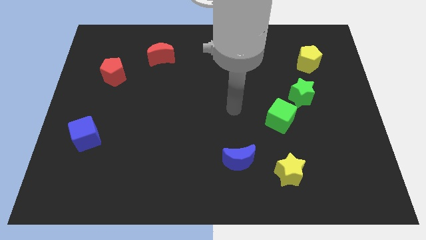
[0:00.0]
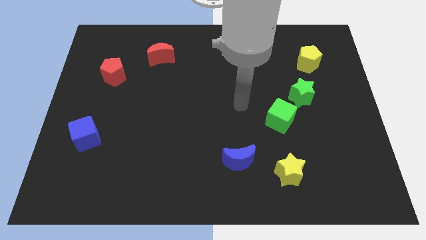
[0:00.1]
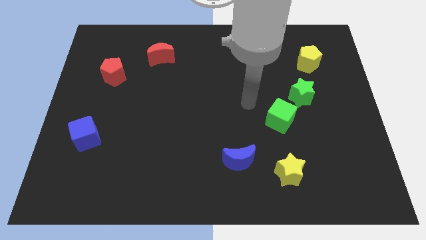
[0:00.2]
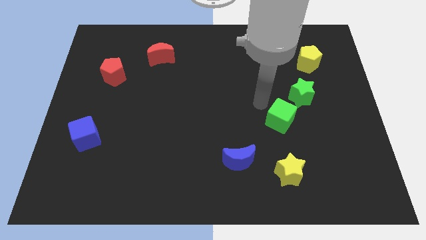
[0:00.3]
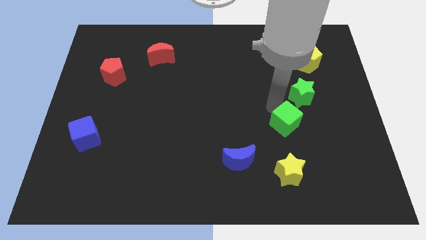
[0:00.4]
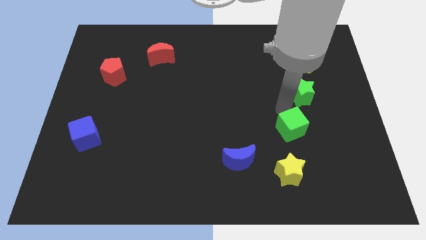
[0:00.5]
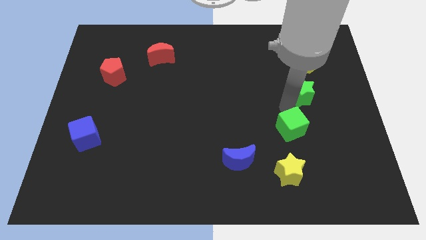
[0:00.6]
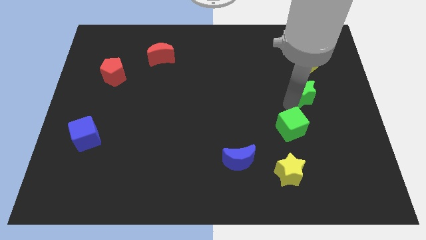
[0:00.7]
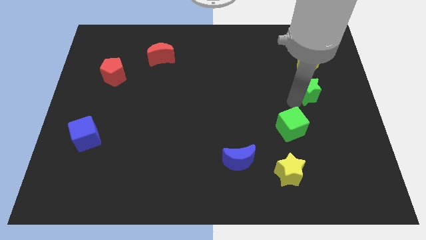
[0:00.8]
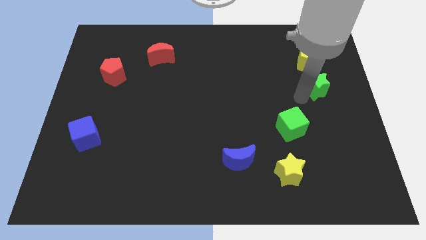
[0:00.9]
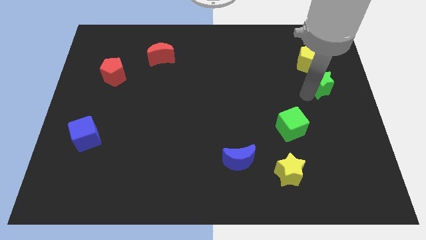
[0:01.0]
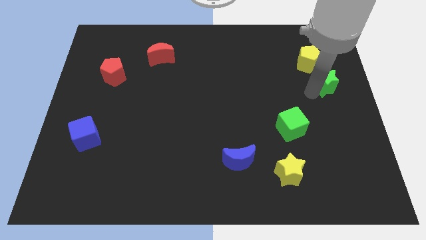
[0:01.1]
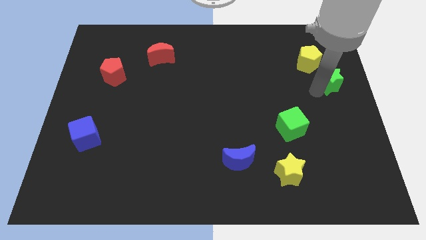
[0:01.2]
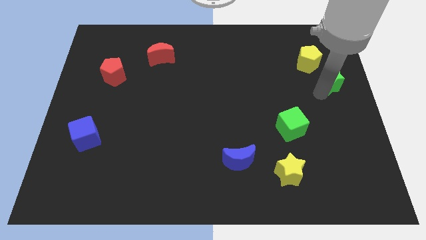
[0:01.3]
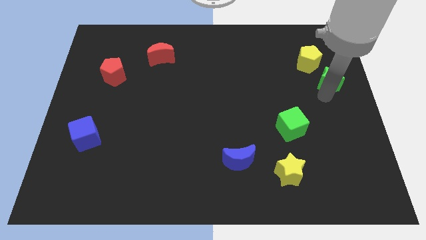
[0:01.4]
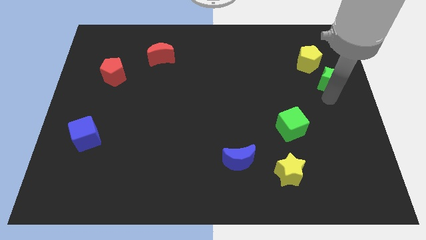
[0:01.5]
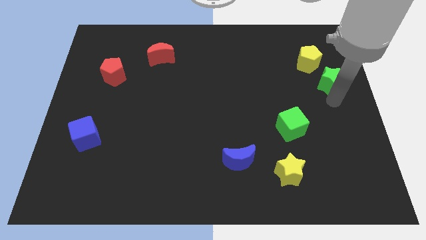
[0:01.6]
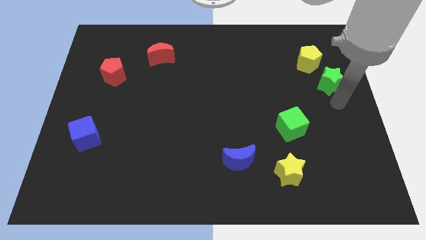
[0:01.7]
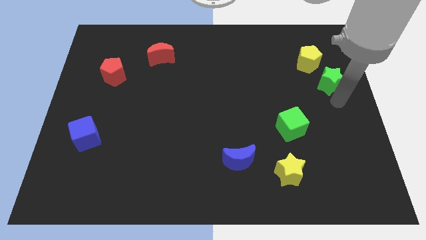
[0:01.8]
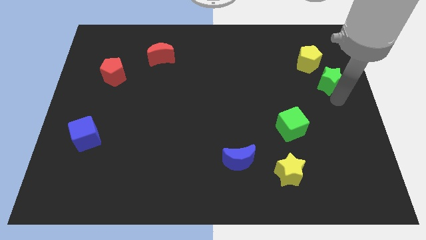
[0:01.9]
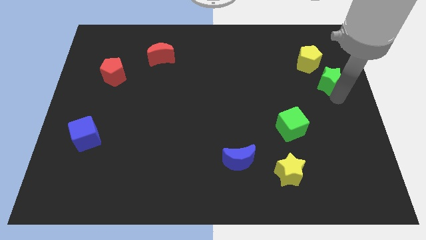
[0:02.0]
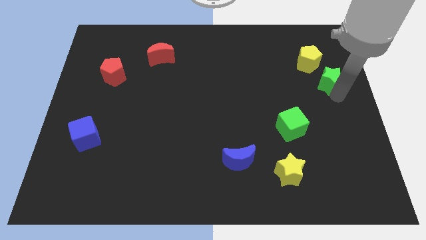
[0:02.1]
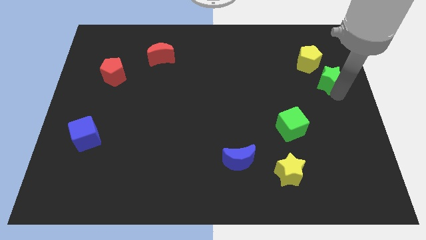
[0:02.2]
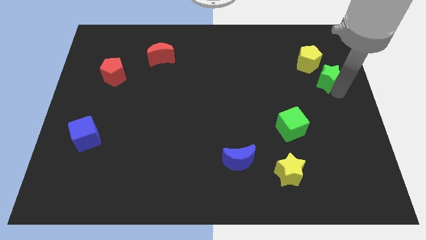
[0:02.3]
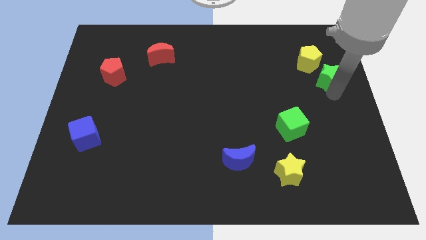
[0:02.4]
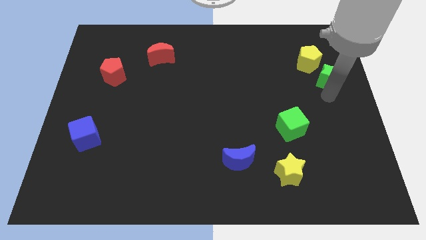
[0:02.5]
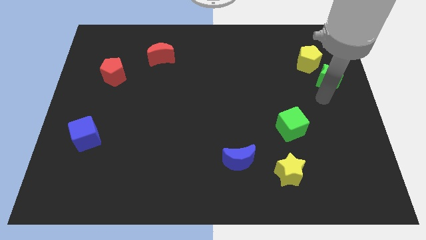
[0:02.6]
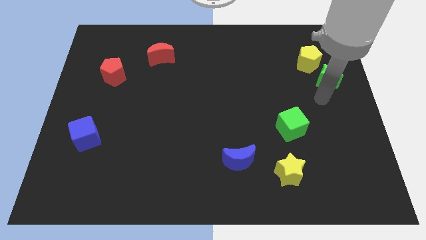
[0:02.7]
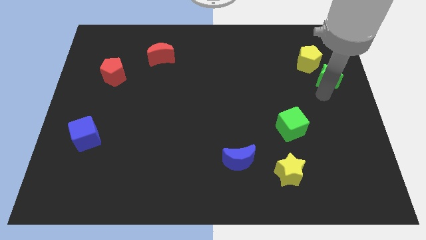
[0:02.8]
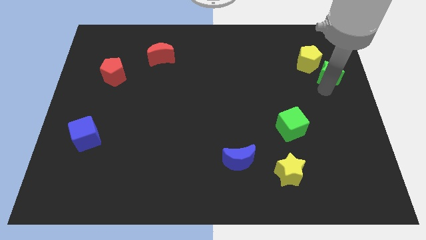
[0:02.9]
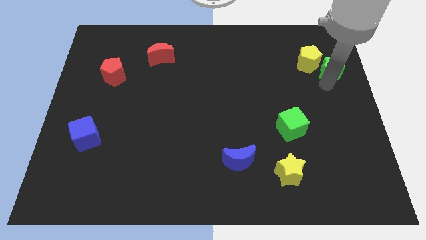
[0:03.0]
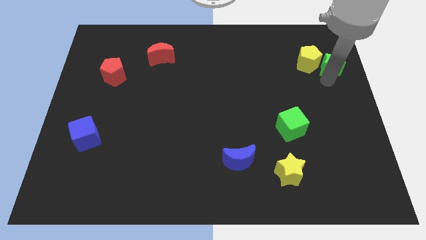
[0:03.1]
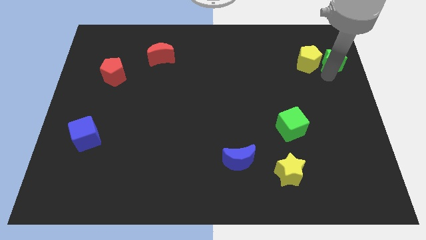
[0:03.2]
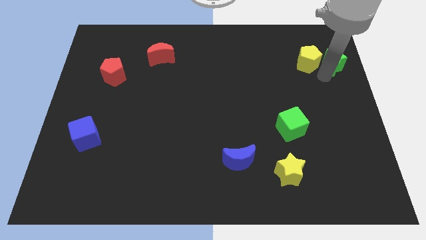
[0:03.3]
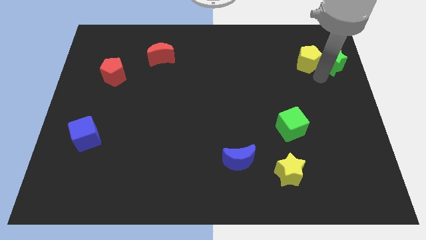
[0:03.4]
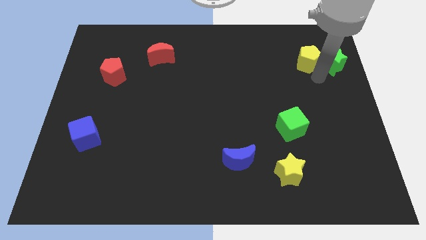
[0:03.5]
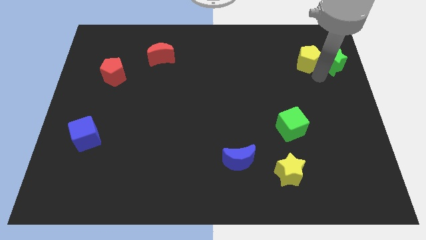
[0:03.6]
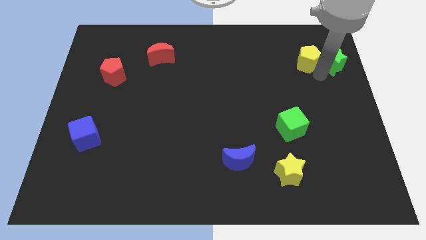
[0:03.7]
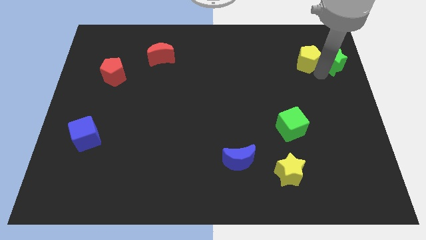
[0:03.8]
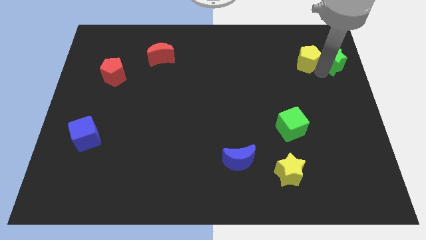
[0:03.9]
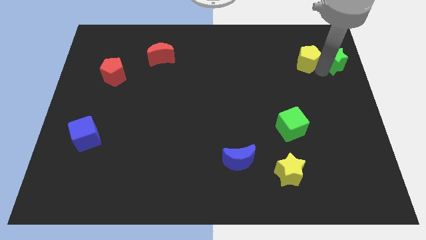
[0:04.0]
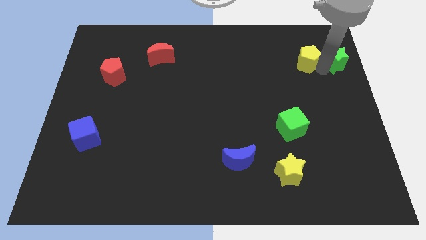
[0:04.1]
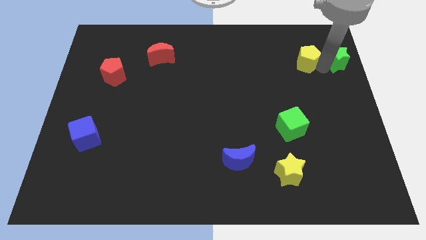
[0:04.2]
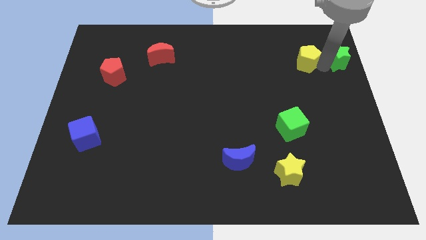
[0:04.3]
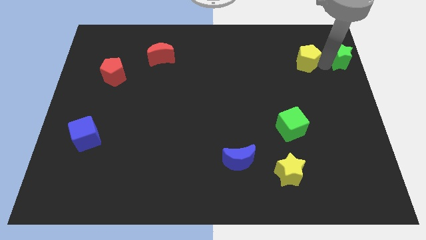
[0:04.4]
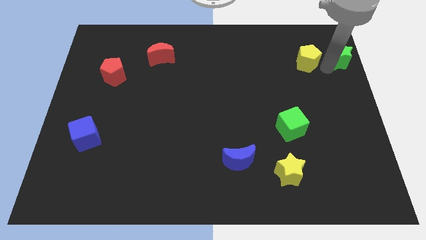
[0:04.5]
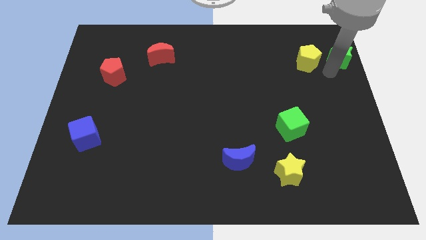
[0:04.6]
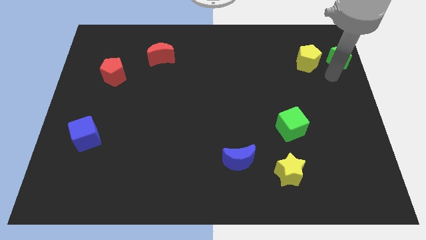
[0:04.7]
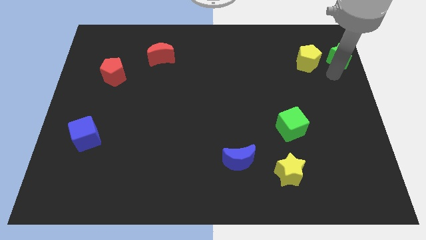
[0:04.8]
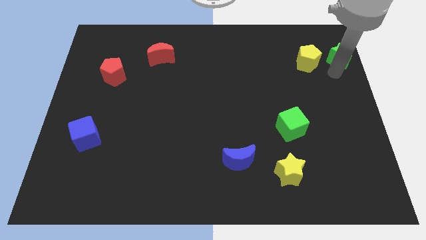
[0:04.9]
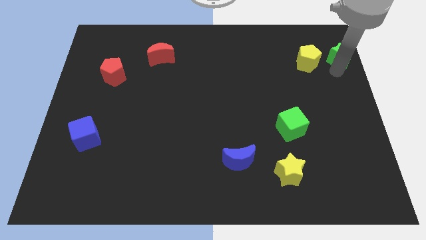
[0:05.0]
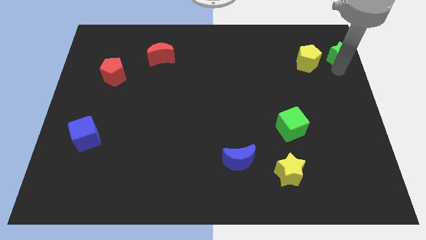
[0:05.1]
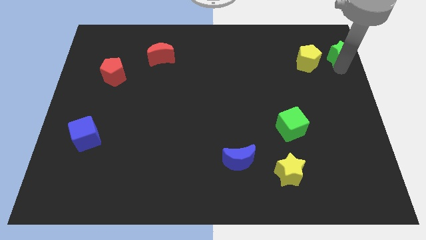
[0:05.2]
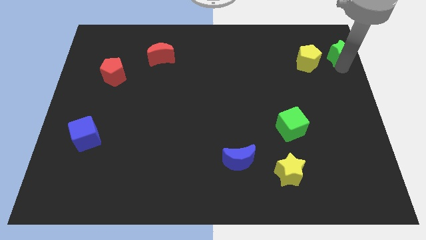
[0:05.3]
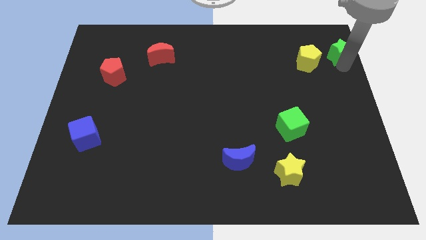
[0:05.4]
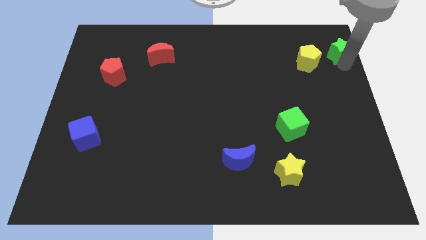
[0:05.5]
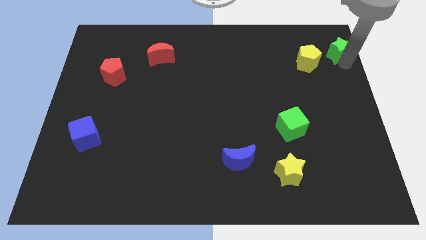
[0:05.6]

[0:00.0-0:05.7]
move the green star to the upper right corner
